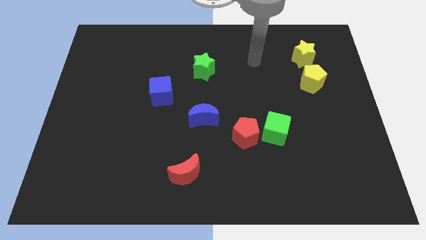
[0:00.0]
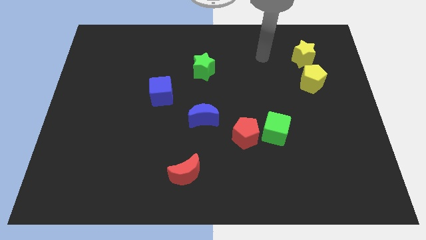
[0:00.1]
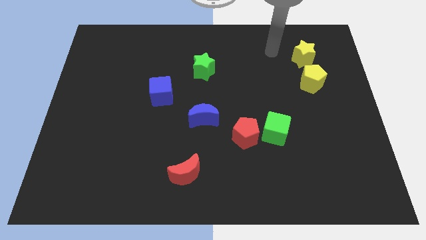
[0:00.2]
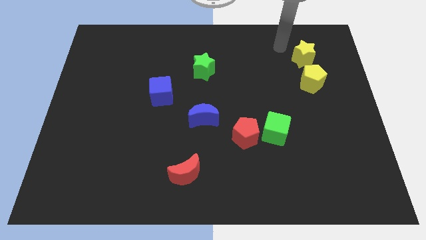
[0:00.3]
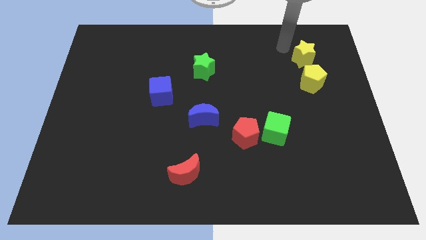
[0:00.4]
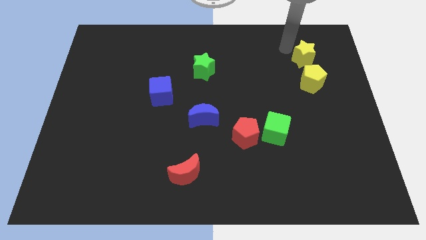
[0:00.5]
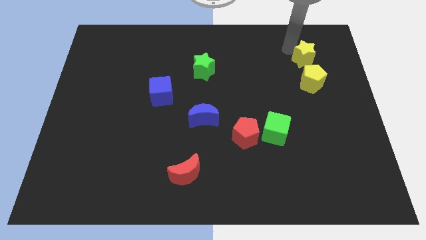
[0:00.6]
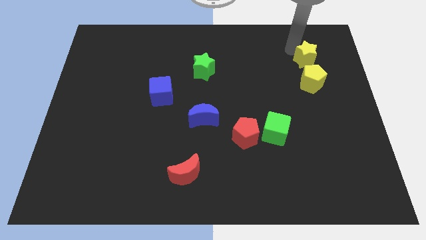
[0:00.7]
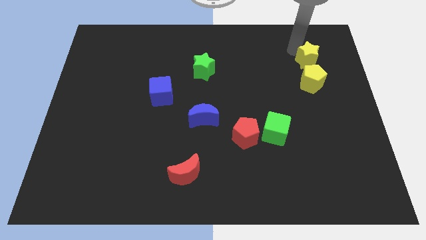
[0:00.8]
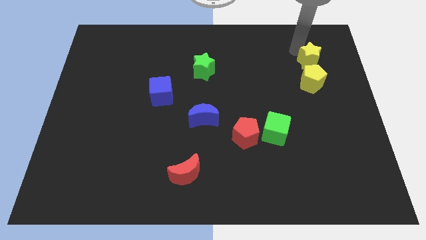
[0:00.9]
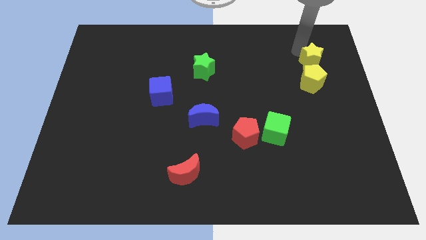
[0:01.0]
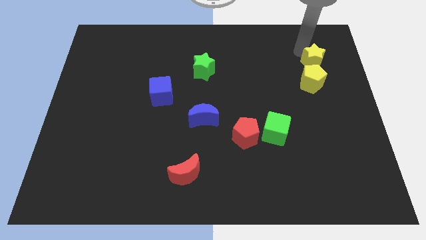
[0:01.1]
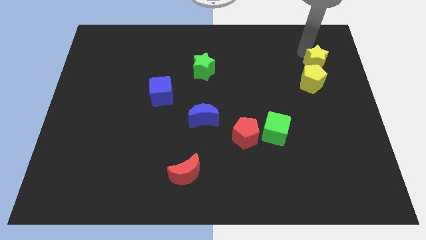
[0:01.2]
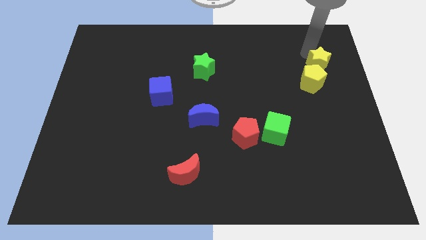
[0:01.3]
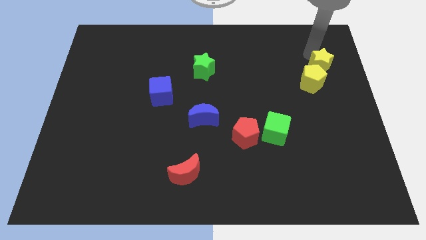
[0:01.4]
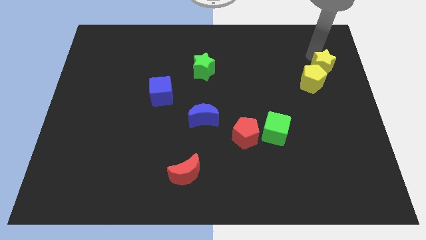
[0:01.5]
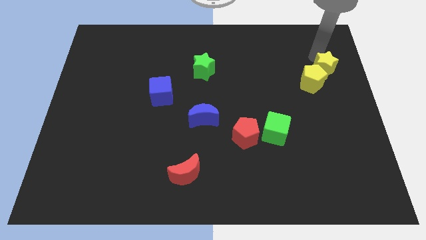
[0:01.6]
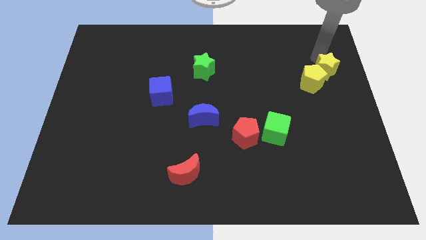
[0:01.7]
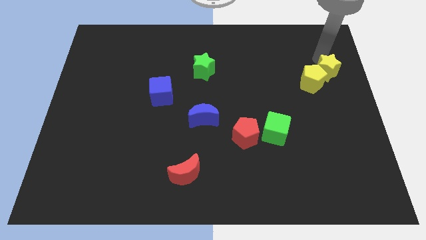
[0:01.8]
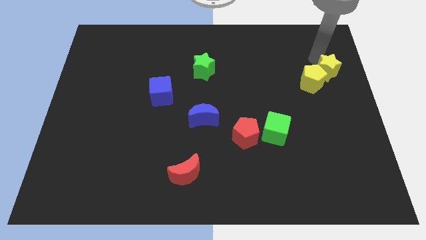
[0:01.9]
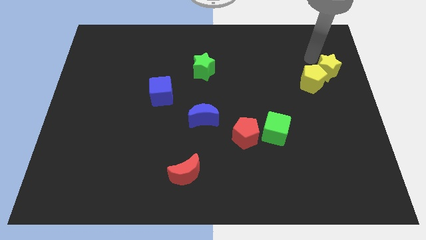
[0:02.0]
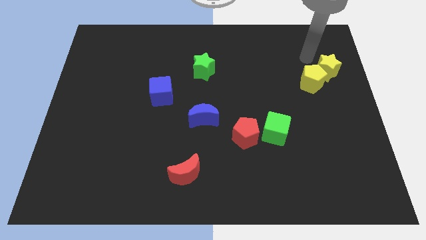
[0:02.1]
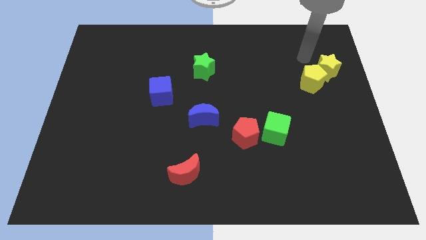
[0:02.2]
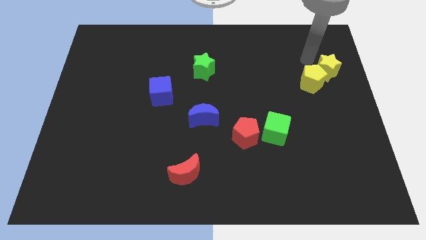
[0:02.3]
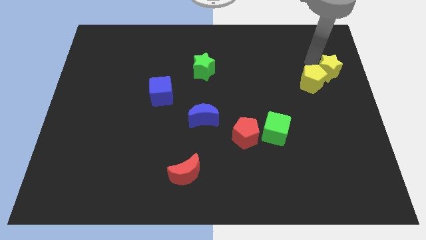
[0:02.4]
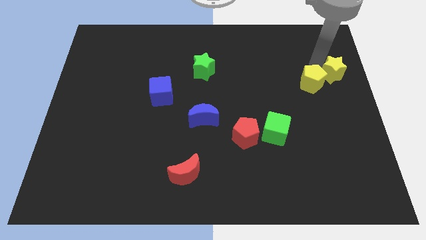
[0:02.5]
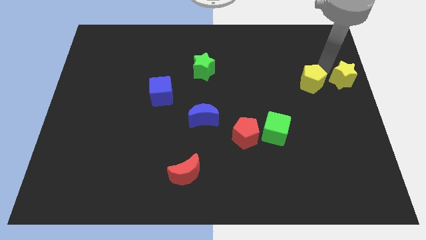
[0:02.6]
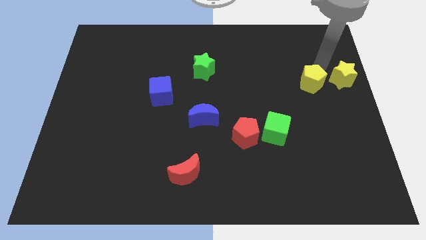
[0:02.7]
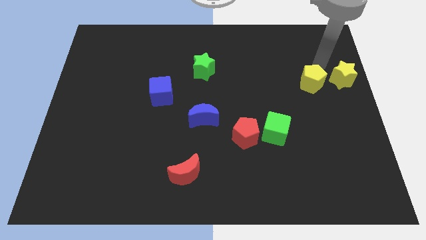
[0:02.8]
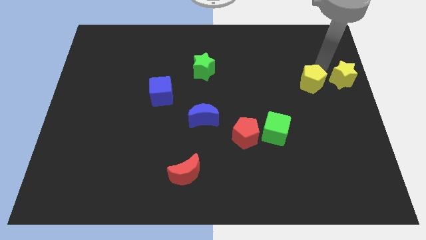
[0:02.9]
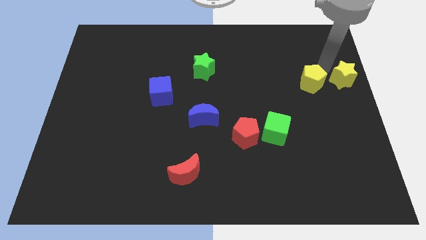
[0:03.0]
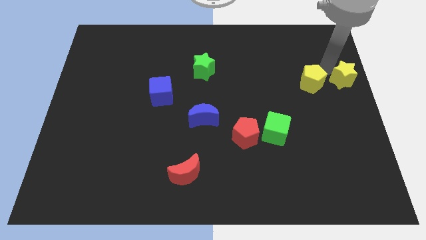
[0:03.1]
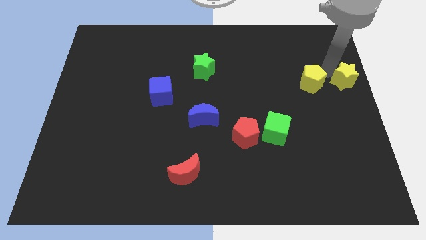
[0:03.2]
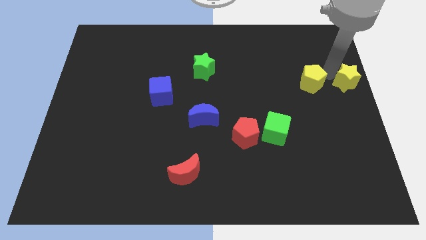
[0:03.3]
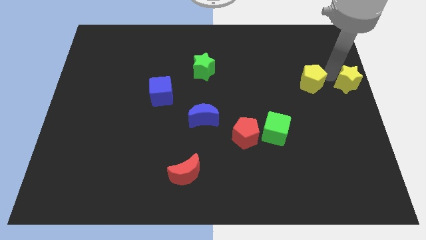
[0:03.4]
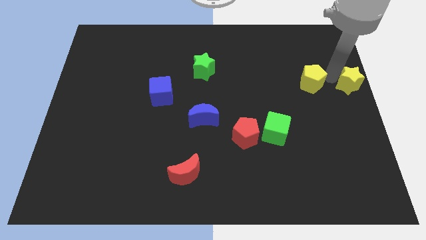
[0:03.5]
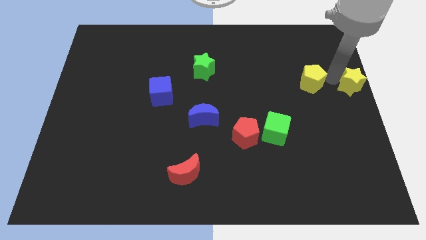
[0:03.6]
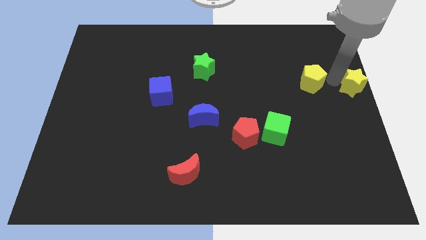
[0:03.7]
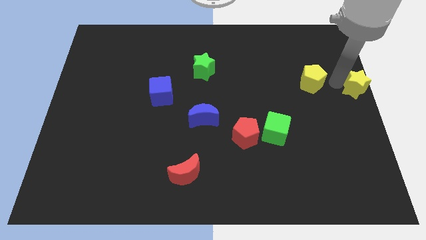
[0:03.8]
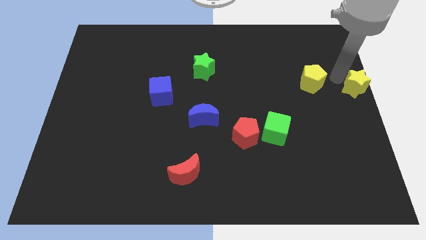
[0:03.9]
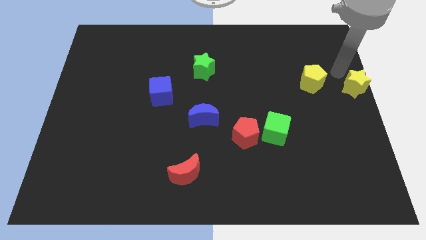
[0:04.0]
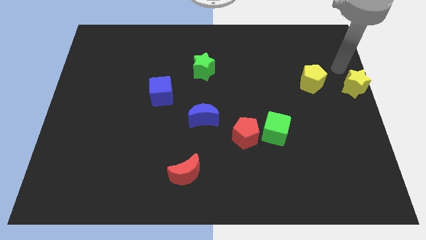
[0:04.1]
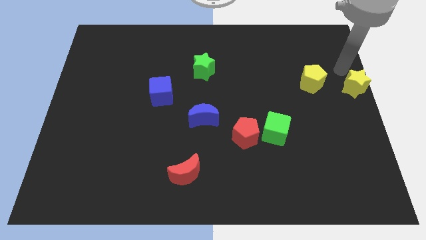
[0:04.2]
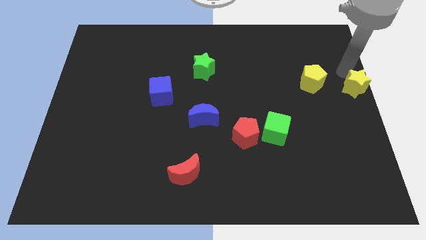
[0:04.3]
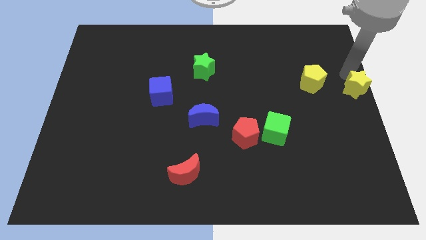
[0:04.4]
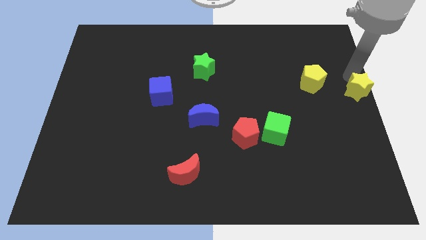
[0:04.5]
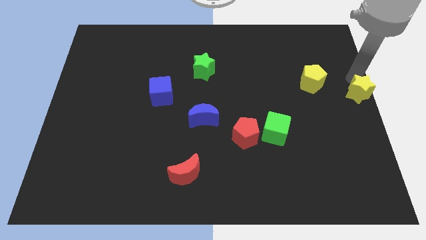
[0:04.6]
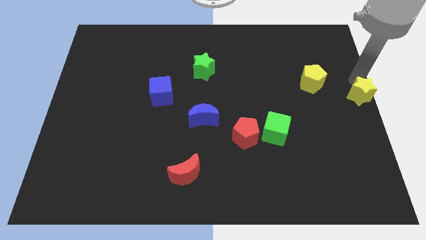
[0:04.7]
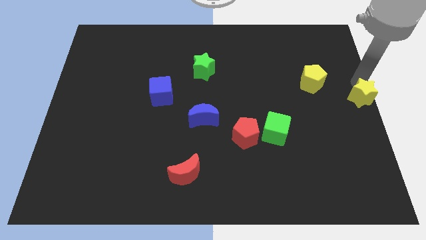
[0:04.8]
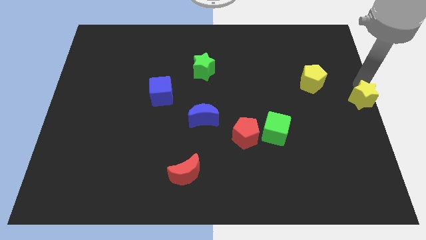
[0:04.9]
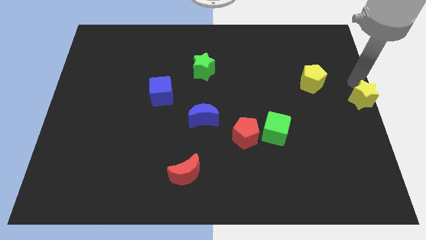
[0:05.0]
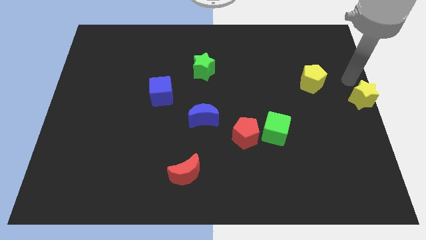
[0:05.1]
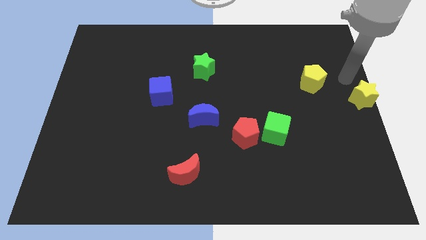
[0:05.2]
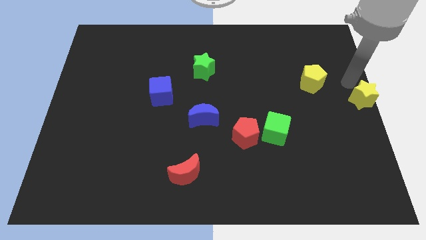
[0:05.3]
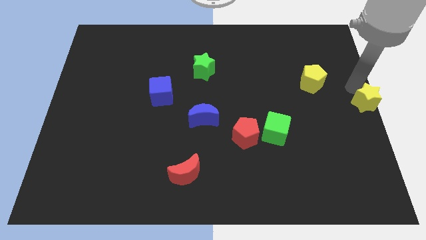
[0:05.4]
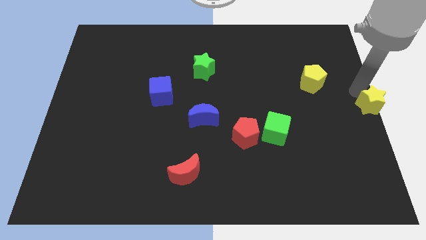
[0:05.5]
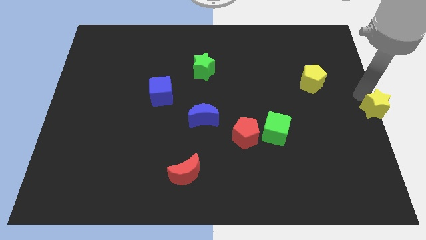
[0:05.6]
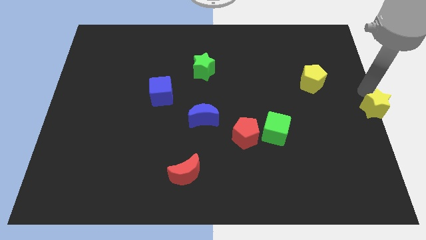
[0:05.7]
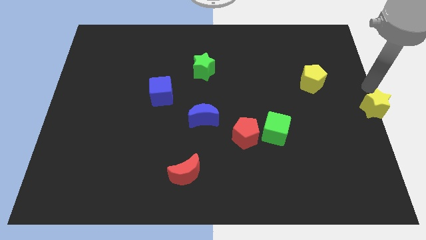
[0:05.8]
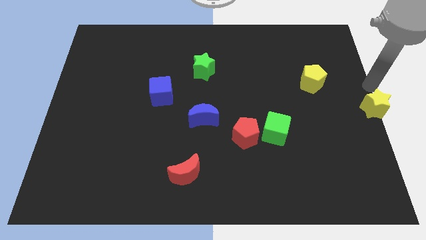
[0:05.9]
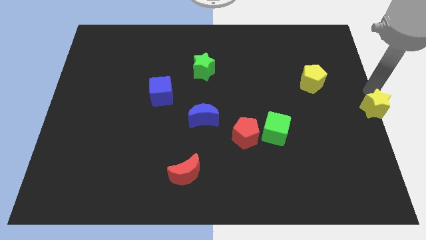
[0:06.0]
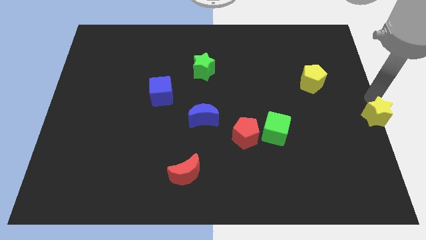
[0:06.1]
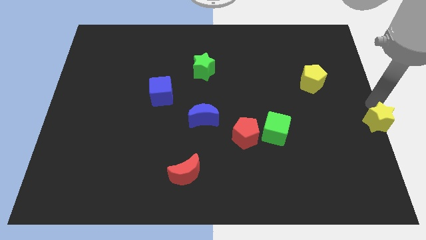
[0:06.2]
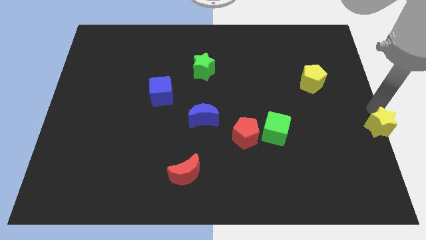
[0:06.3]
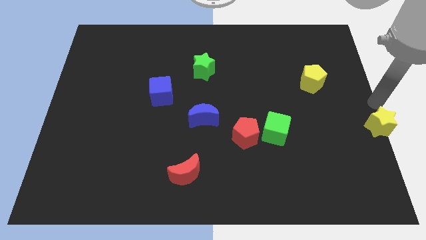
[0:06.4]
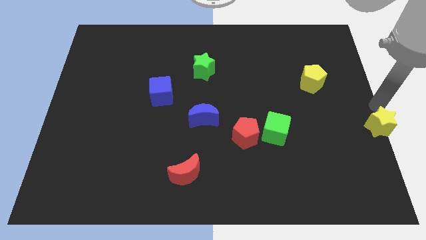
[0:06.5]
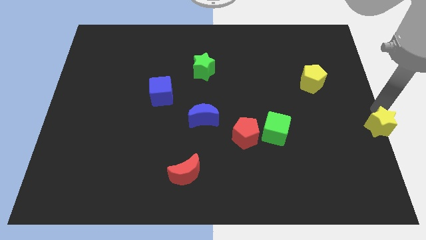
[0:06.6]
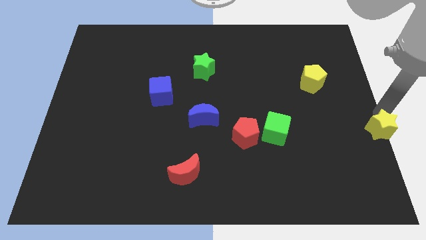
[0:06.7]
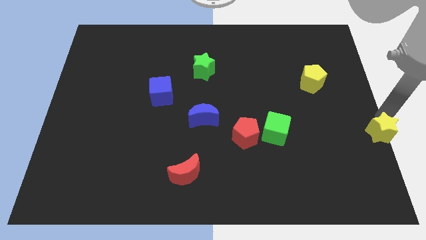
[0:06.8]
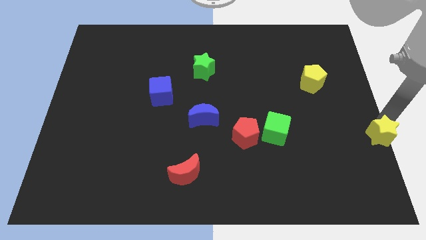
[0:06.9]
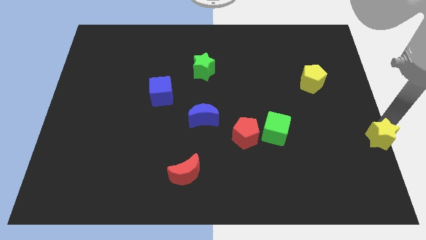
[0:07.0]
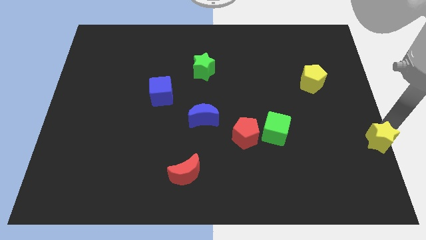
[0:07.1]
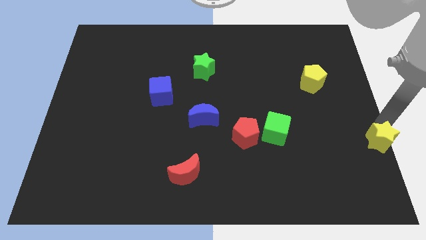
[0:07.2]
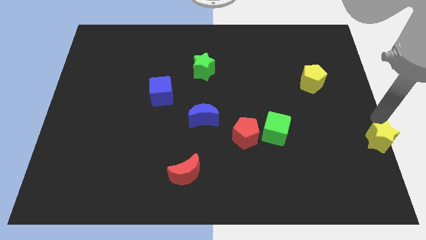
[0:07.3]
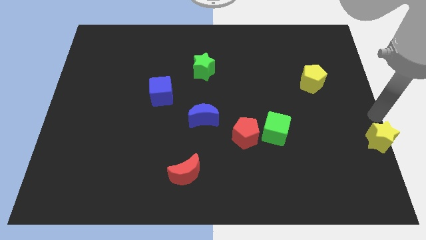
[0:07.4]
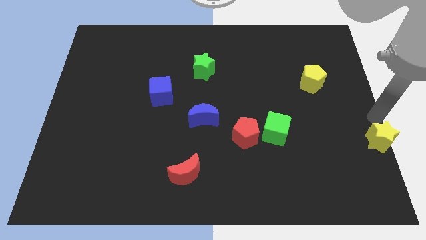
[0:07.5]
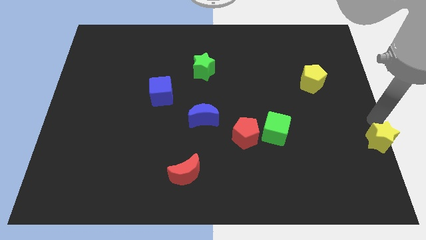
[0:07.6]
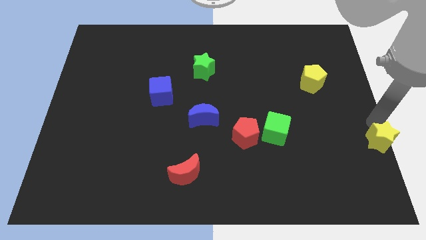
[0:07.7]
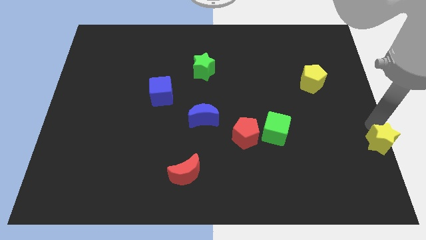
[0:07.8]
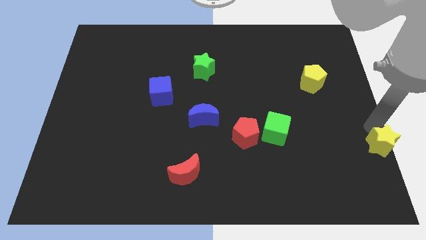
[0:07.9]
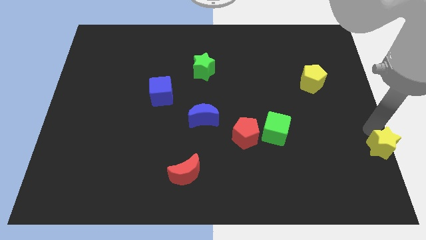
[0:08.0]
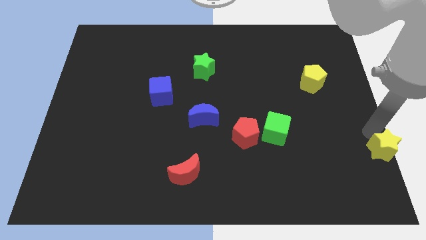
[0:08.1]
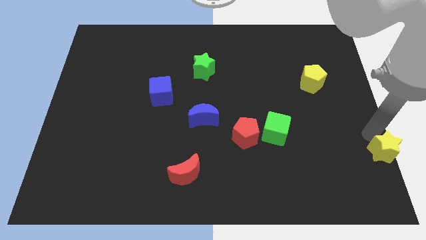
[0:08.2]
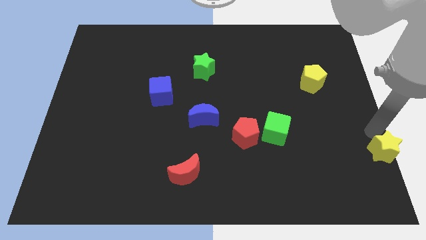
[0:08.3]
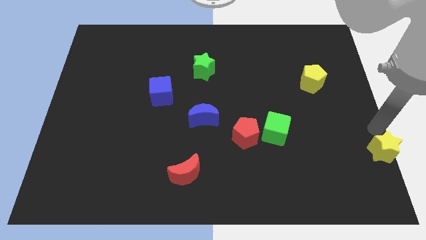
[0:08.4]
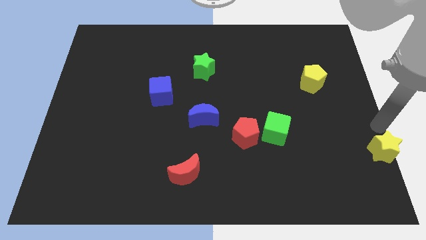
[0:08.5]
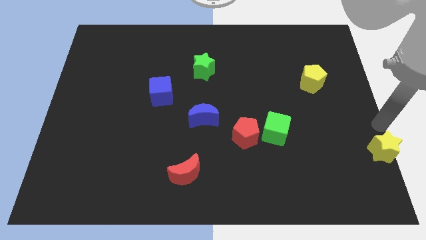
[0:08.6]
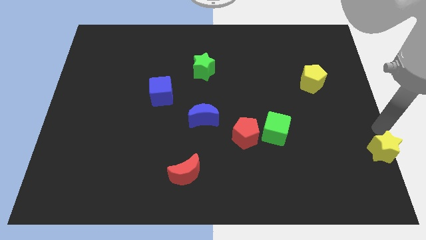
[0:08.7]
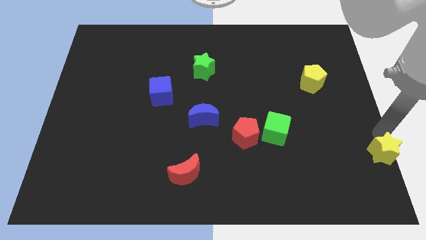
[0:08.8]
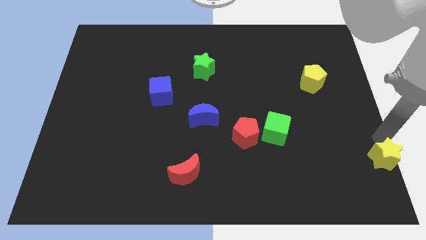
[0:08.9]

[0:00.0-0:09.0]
move the yellow star to the bottom right corner
